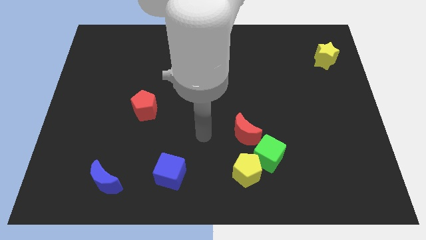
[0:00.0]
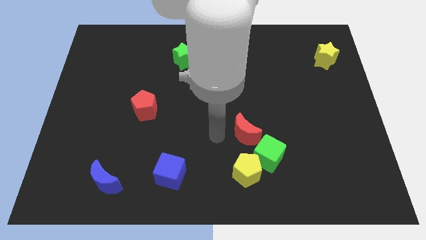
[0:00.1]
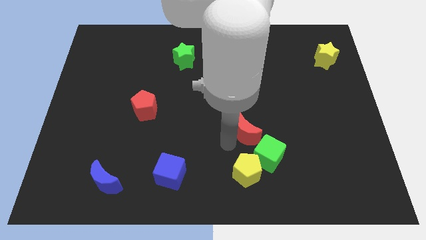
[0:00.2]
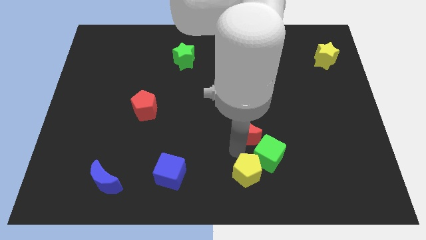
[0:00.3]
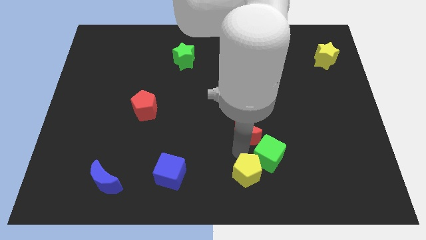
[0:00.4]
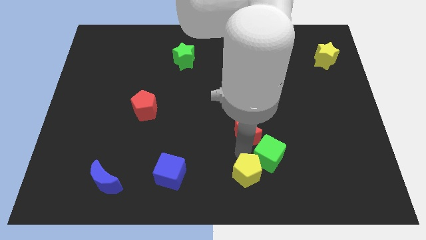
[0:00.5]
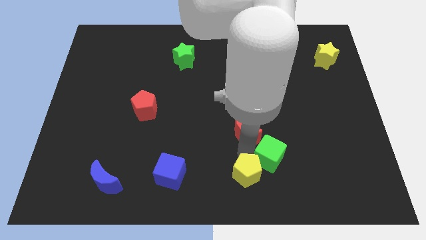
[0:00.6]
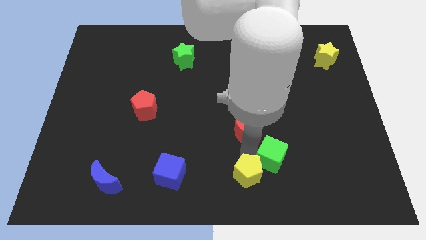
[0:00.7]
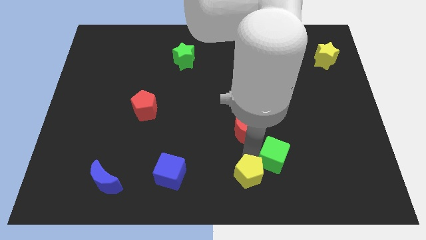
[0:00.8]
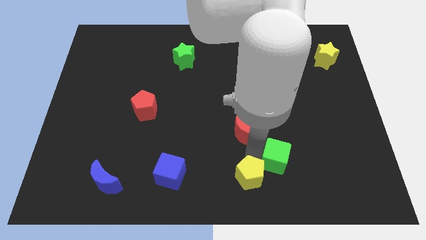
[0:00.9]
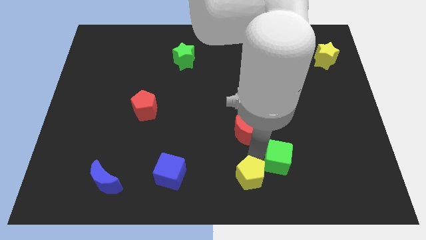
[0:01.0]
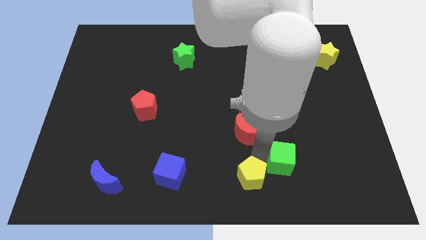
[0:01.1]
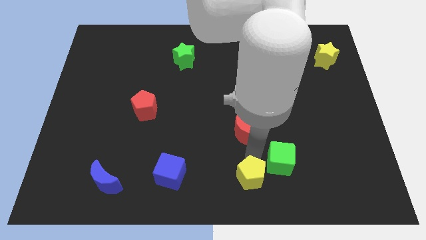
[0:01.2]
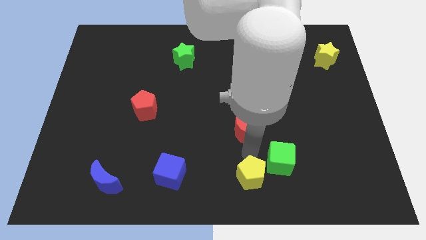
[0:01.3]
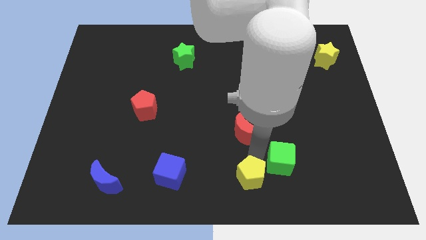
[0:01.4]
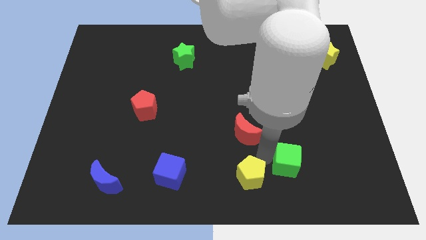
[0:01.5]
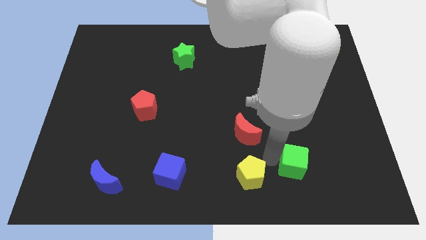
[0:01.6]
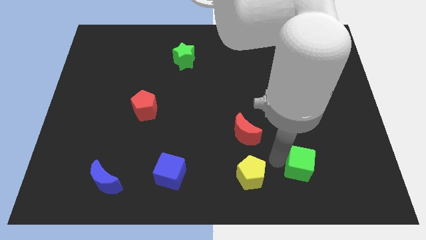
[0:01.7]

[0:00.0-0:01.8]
move the green cube away from the yellow pentagon and red moon

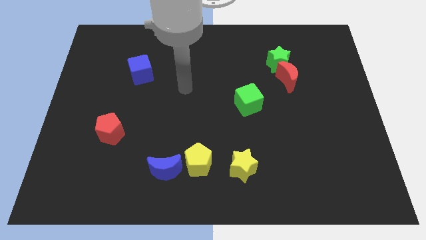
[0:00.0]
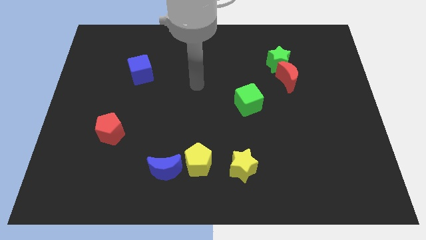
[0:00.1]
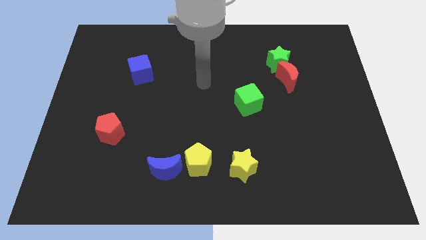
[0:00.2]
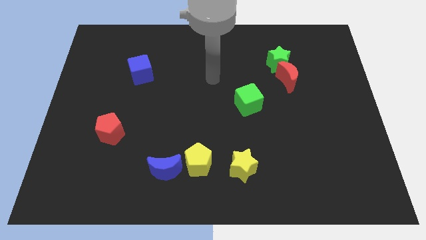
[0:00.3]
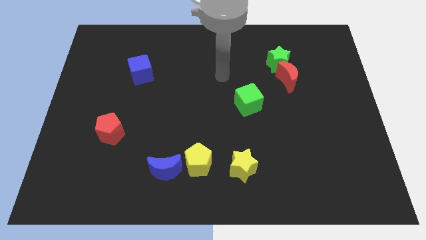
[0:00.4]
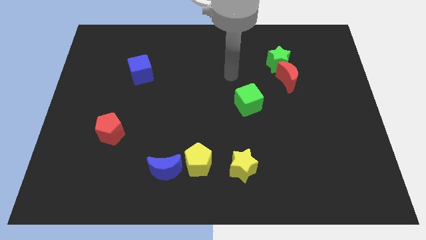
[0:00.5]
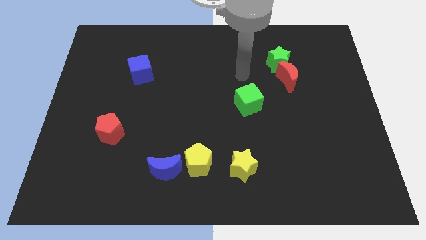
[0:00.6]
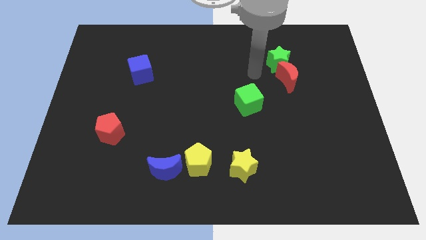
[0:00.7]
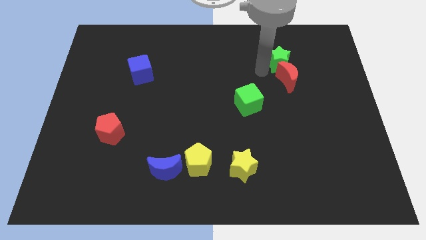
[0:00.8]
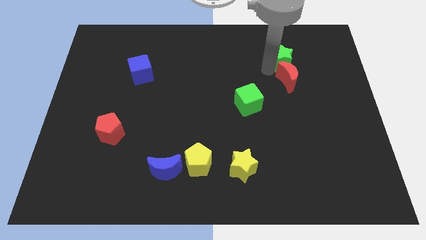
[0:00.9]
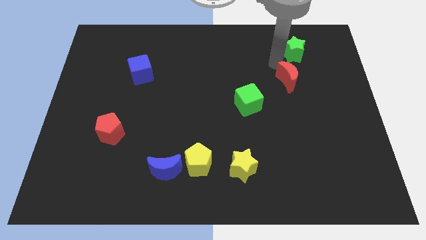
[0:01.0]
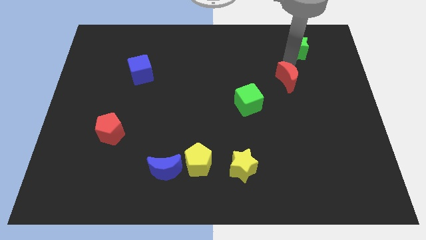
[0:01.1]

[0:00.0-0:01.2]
pull the red moon apart from the green star

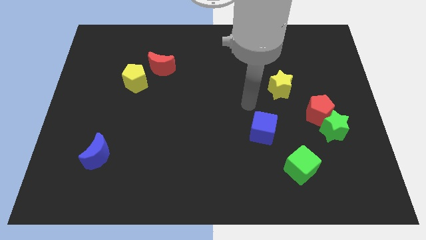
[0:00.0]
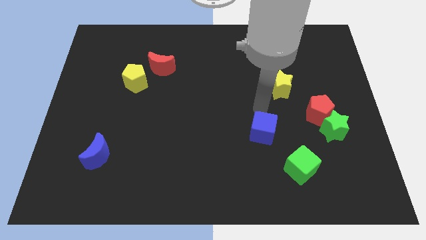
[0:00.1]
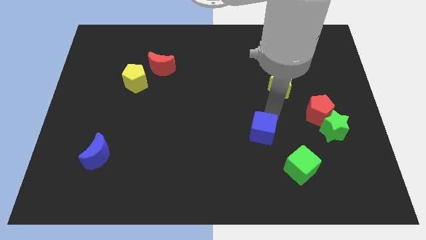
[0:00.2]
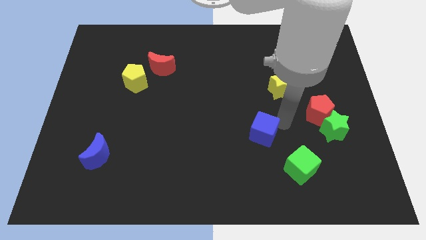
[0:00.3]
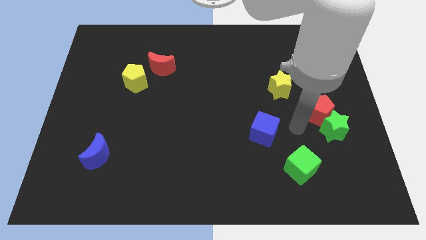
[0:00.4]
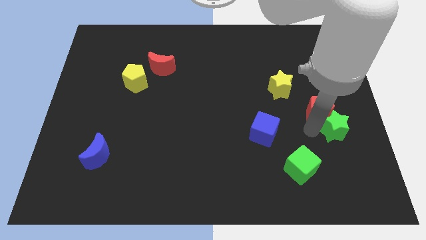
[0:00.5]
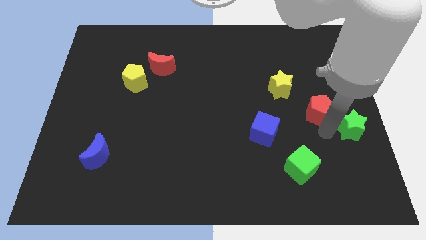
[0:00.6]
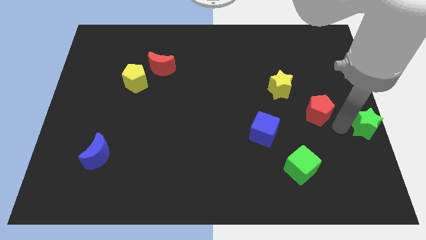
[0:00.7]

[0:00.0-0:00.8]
separate the red pentagon from the green star

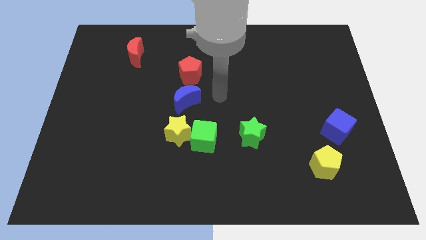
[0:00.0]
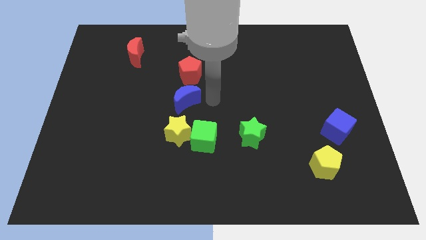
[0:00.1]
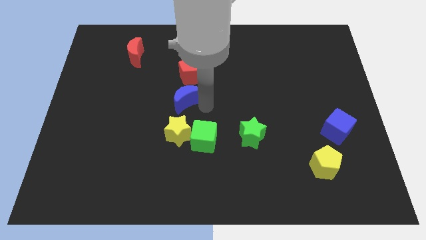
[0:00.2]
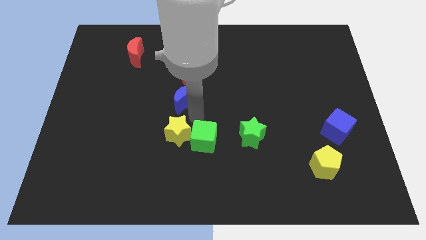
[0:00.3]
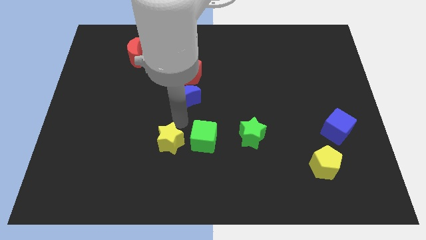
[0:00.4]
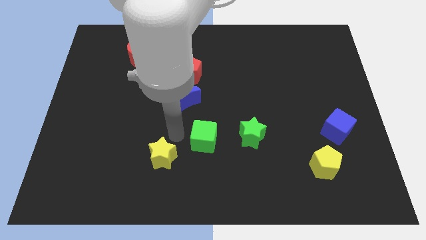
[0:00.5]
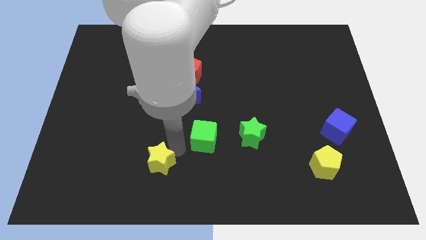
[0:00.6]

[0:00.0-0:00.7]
pull the green cube apart from the yellow star

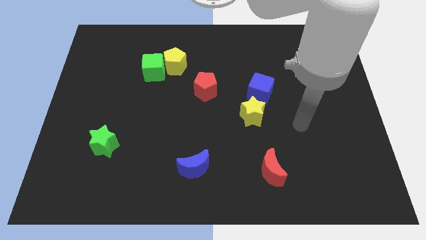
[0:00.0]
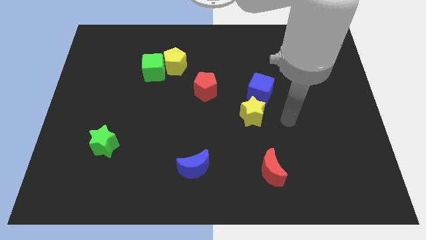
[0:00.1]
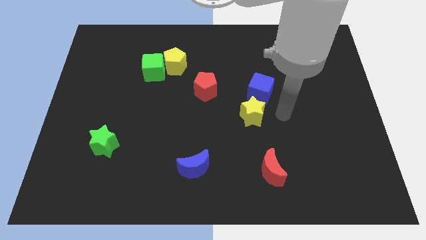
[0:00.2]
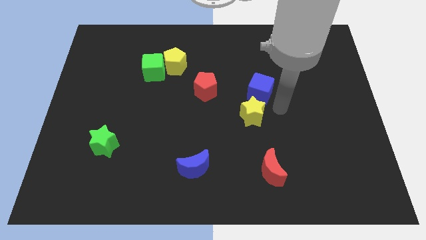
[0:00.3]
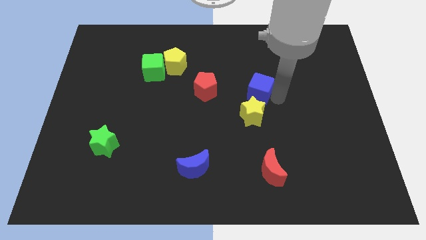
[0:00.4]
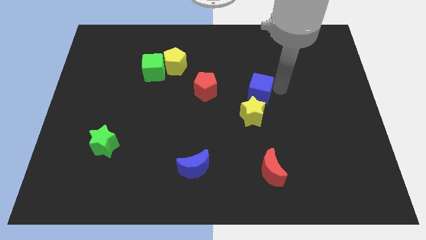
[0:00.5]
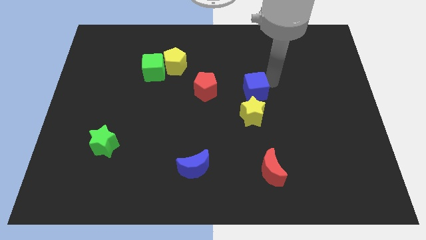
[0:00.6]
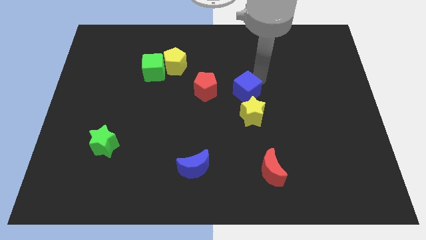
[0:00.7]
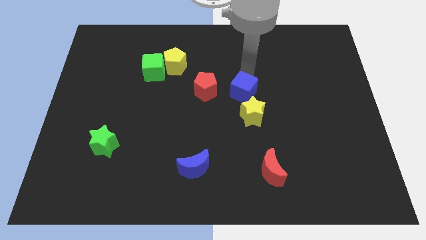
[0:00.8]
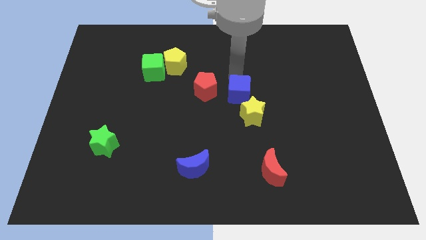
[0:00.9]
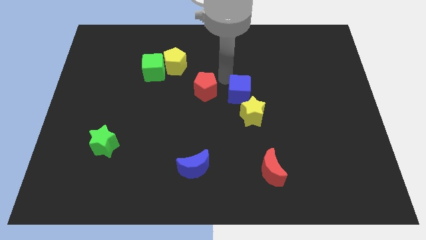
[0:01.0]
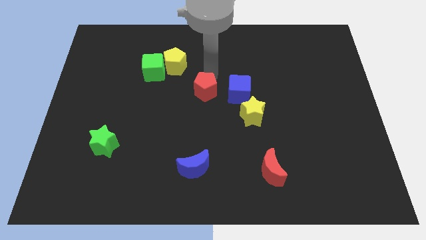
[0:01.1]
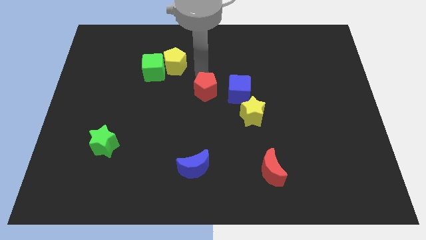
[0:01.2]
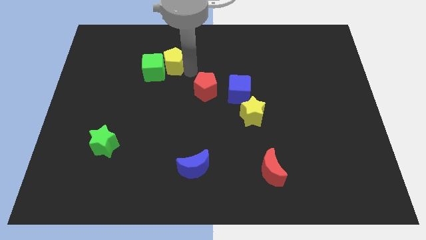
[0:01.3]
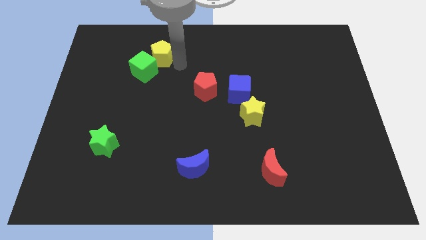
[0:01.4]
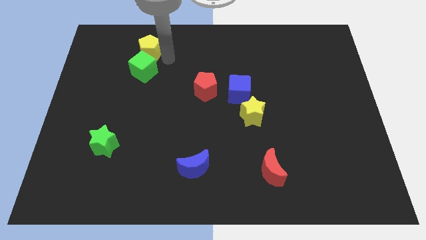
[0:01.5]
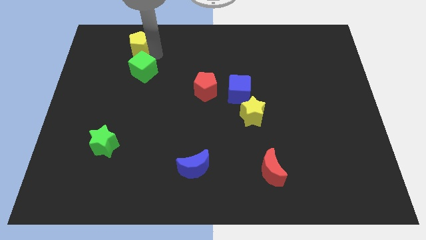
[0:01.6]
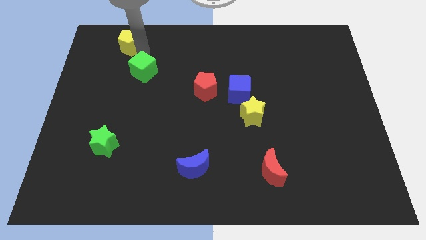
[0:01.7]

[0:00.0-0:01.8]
pull the green cube apart from the yellow pentagon

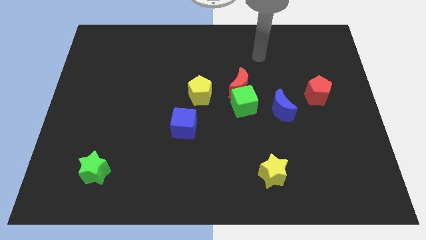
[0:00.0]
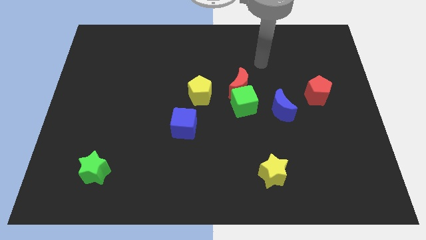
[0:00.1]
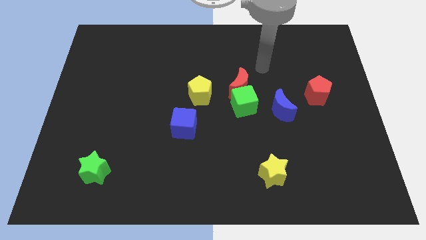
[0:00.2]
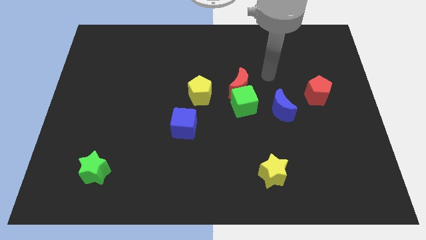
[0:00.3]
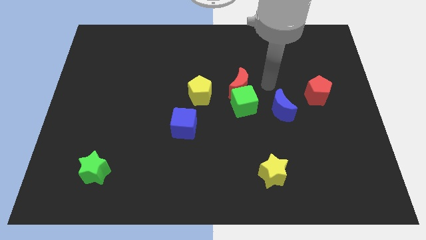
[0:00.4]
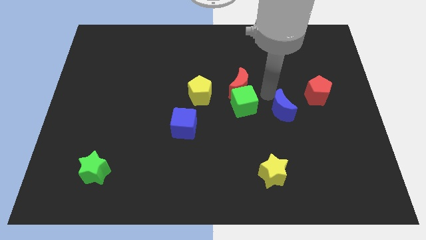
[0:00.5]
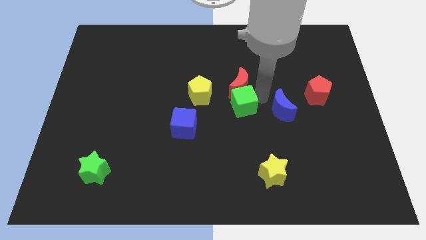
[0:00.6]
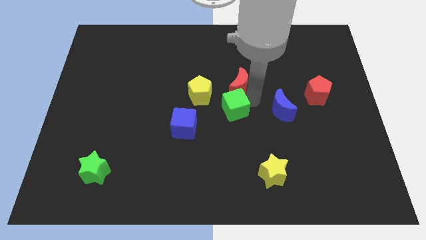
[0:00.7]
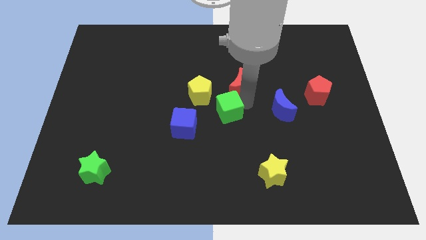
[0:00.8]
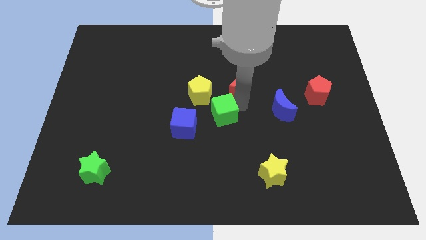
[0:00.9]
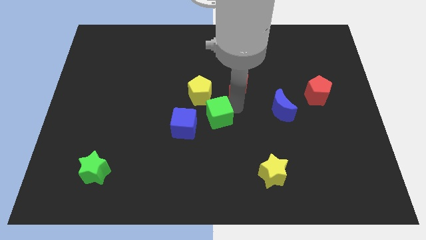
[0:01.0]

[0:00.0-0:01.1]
move the green cube away from the red moon and blue moon

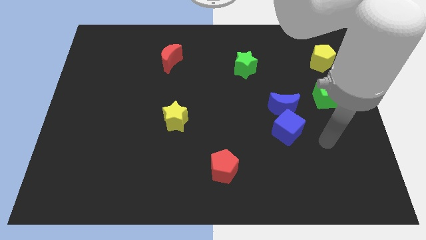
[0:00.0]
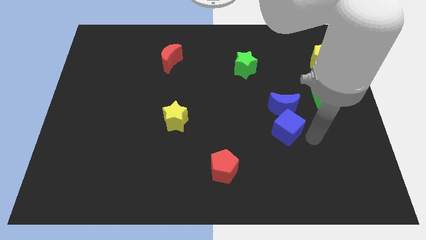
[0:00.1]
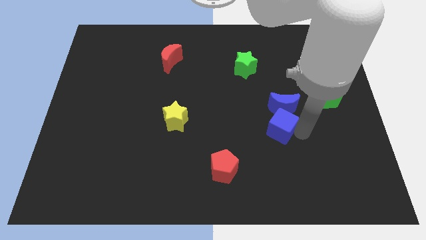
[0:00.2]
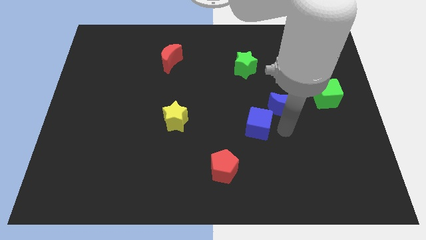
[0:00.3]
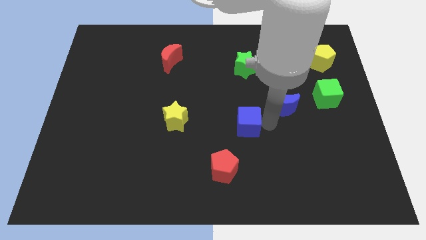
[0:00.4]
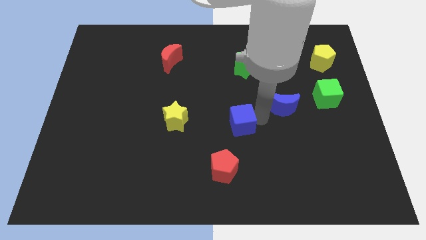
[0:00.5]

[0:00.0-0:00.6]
separate the blue moon from the blue cube

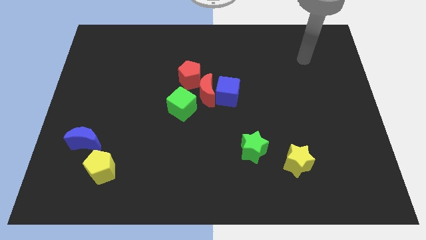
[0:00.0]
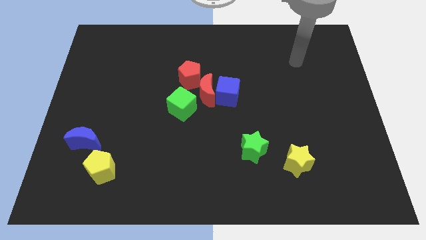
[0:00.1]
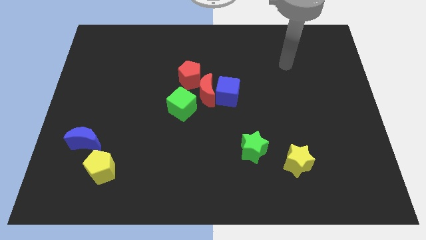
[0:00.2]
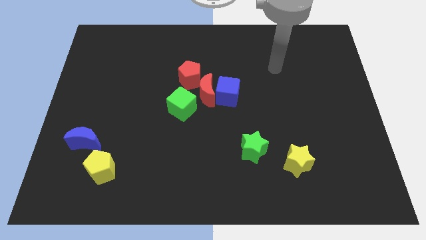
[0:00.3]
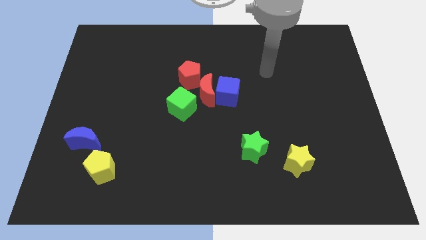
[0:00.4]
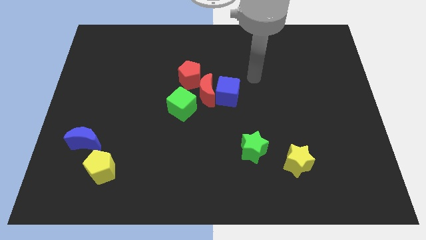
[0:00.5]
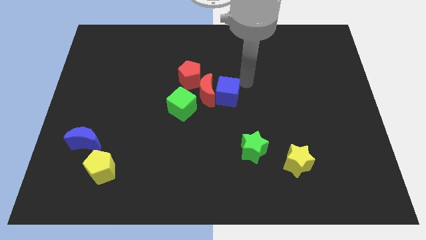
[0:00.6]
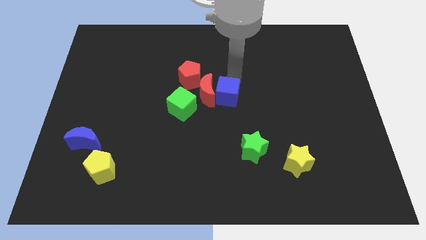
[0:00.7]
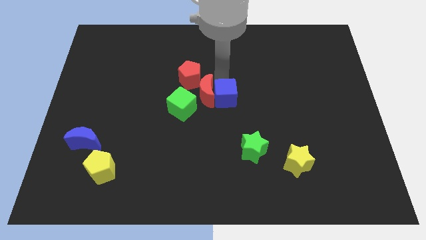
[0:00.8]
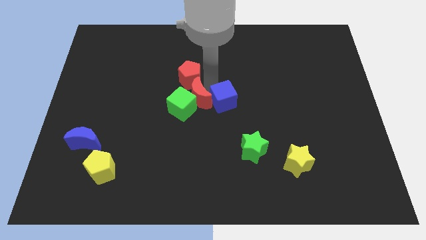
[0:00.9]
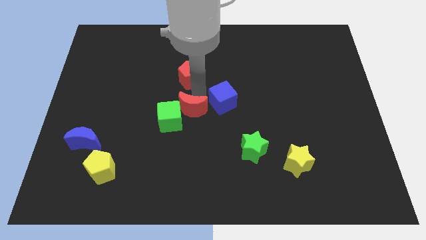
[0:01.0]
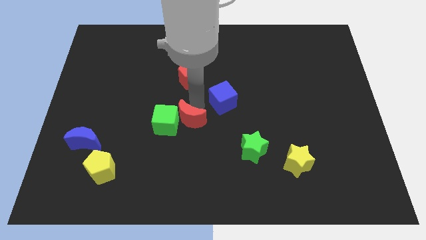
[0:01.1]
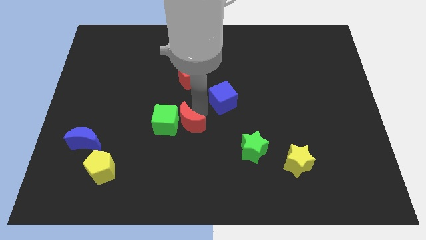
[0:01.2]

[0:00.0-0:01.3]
pull the blue cube apart from the red moon
